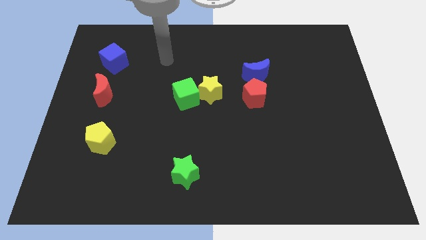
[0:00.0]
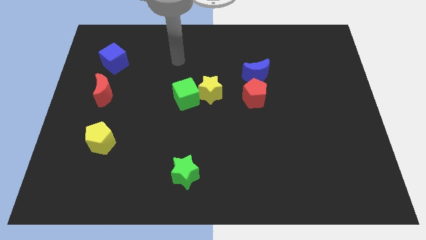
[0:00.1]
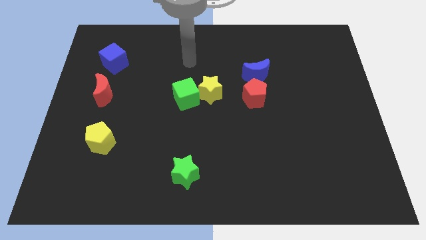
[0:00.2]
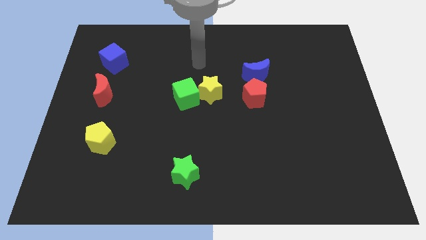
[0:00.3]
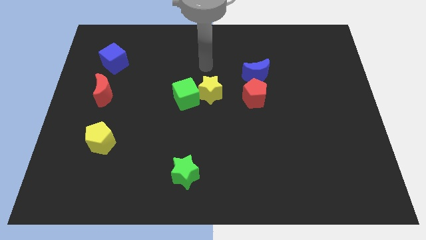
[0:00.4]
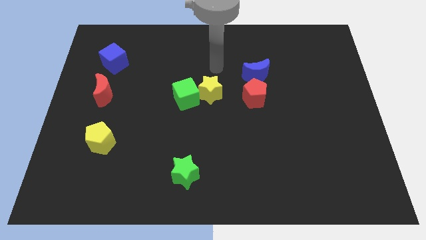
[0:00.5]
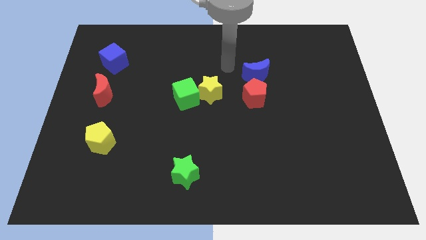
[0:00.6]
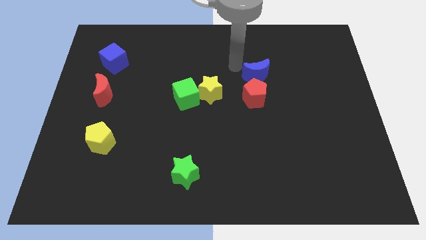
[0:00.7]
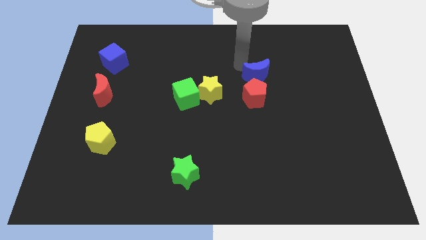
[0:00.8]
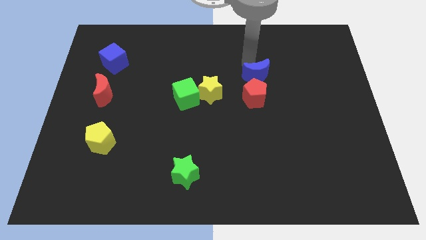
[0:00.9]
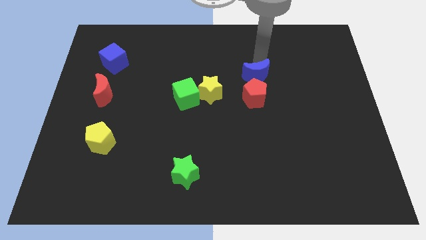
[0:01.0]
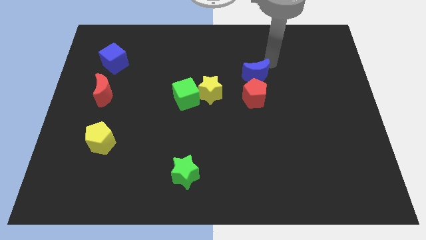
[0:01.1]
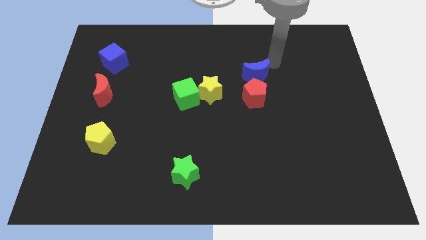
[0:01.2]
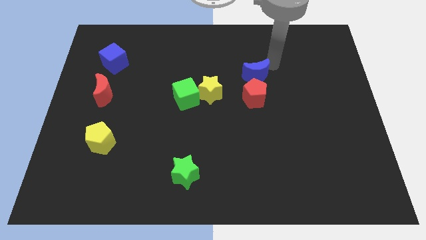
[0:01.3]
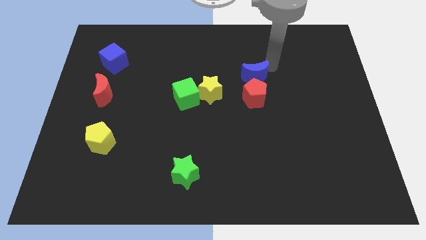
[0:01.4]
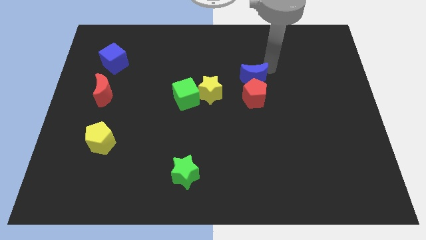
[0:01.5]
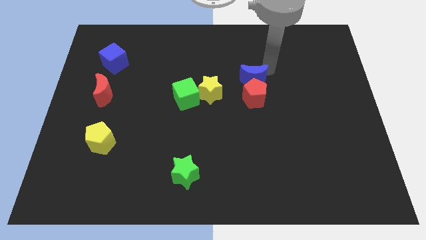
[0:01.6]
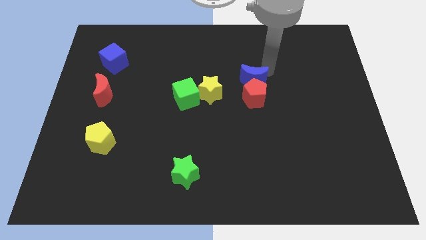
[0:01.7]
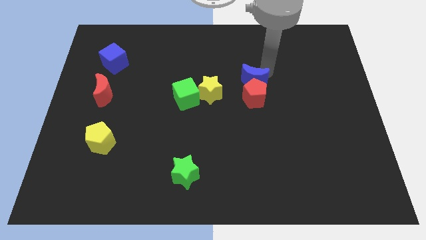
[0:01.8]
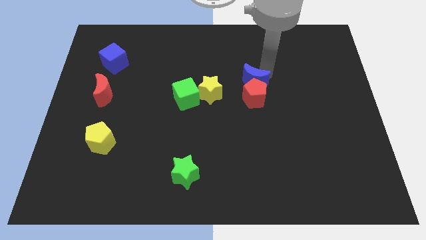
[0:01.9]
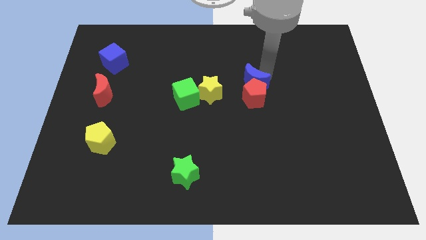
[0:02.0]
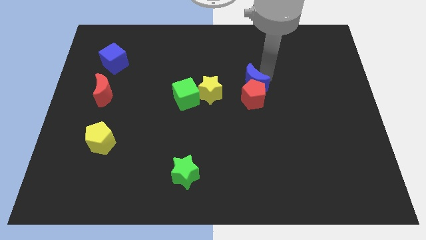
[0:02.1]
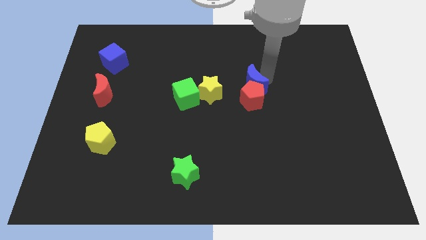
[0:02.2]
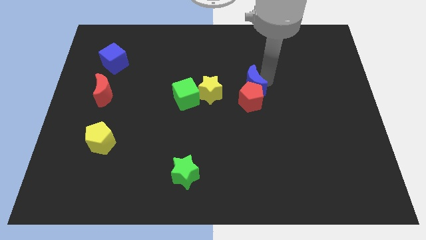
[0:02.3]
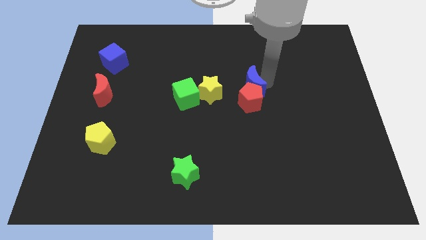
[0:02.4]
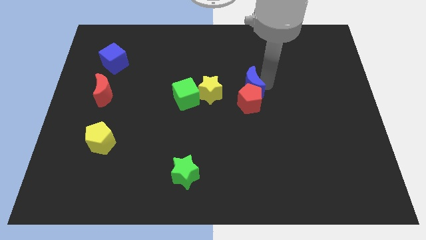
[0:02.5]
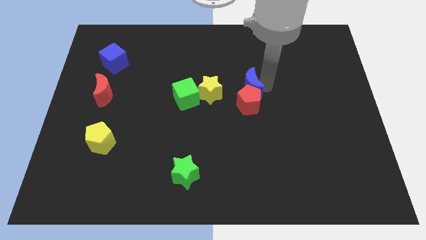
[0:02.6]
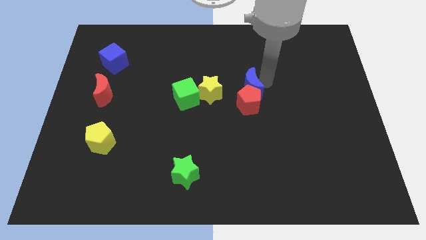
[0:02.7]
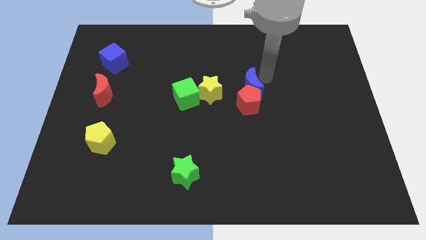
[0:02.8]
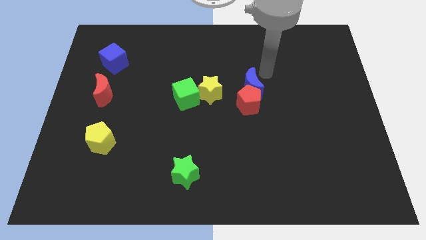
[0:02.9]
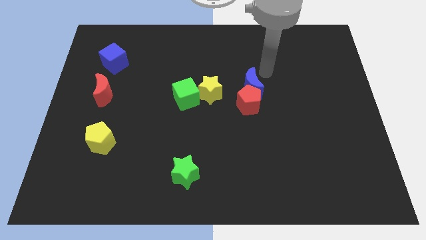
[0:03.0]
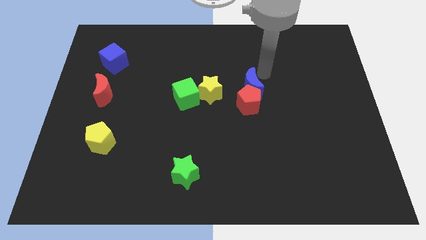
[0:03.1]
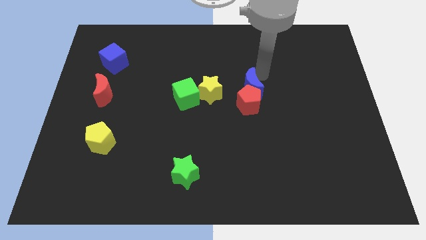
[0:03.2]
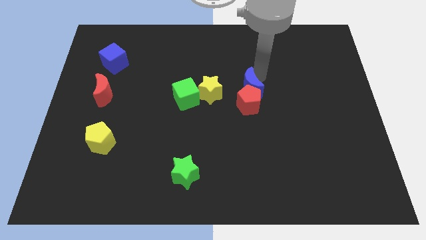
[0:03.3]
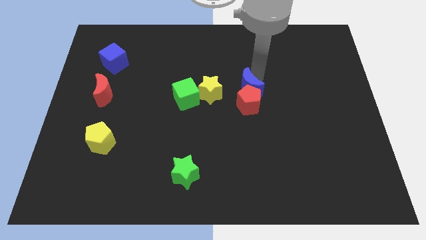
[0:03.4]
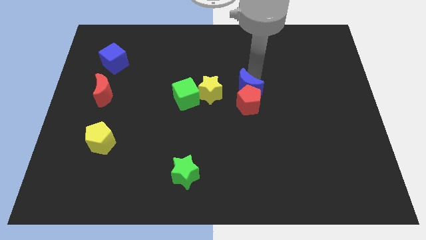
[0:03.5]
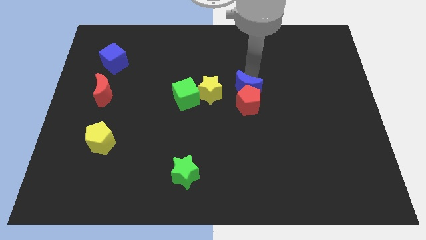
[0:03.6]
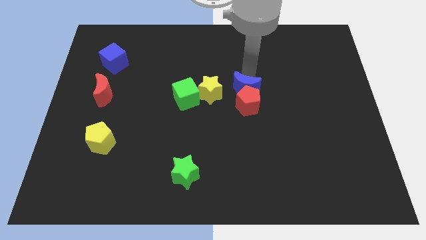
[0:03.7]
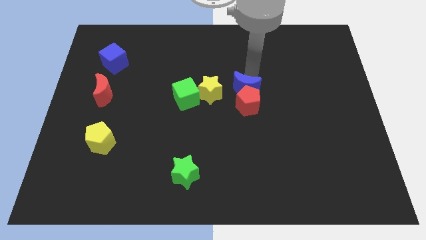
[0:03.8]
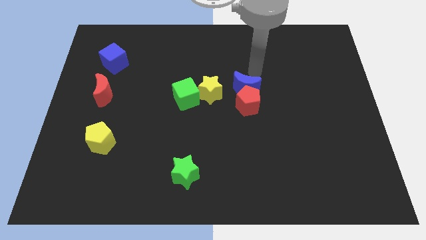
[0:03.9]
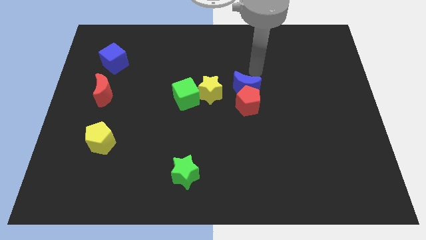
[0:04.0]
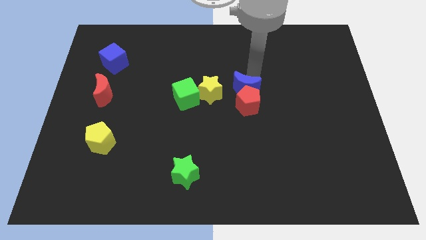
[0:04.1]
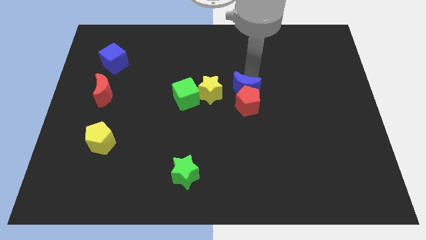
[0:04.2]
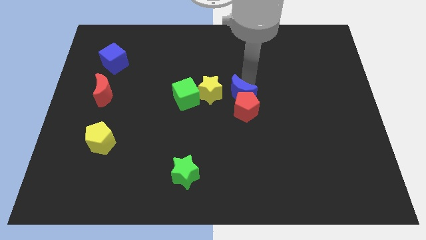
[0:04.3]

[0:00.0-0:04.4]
slightly slide the blue moon down and to the left diagonally

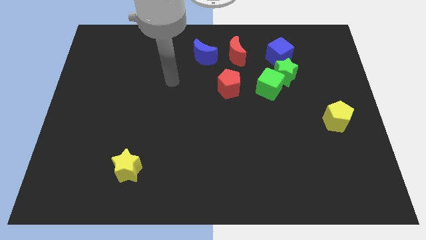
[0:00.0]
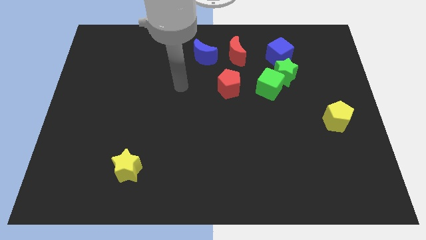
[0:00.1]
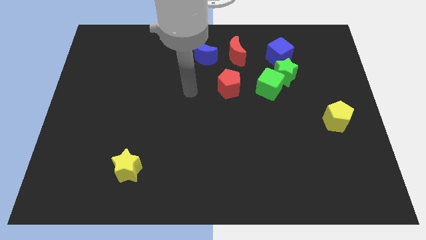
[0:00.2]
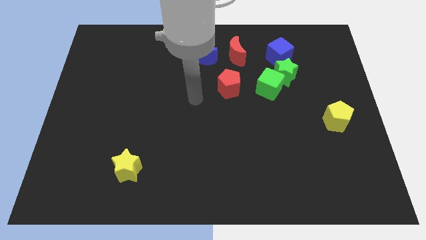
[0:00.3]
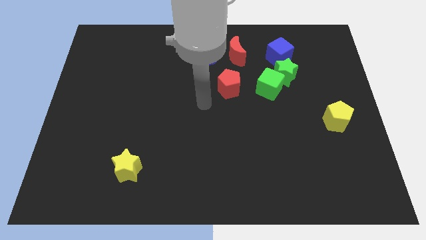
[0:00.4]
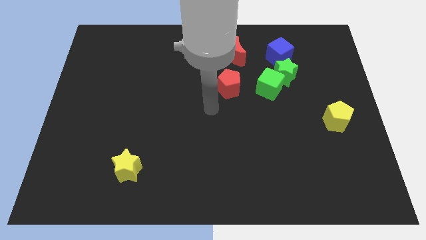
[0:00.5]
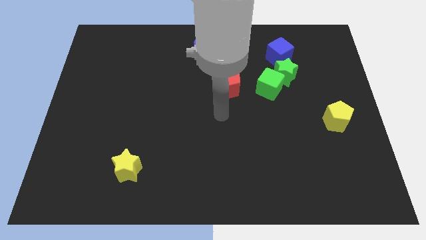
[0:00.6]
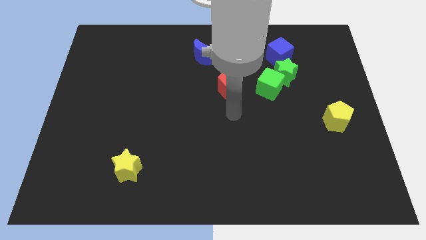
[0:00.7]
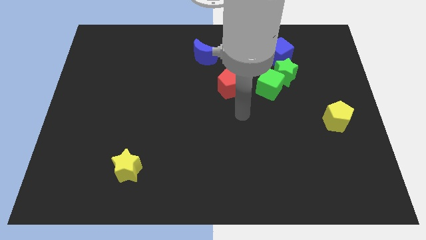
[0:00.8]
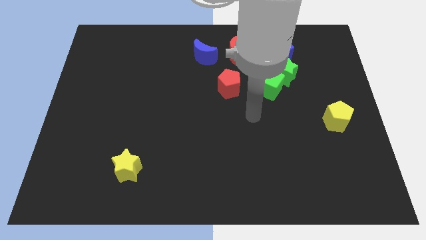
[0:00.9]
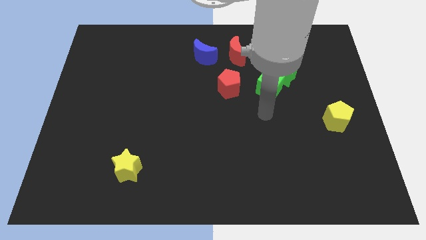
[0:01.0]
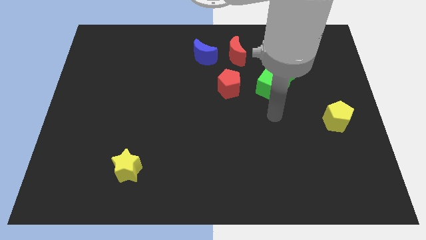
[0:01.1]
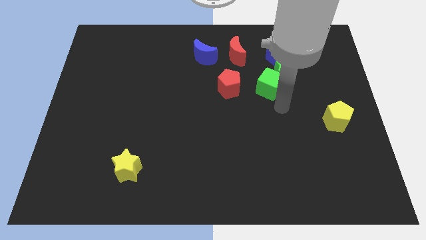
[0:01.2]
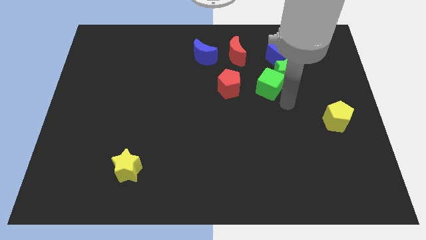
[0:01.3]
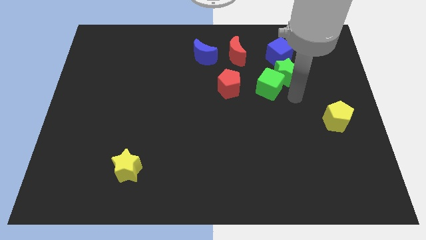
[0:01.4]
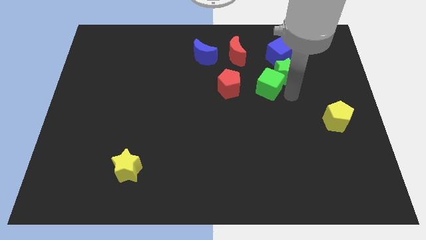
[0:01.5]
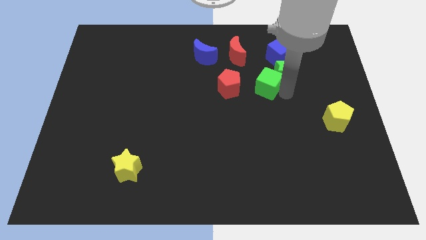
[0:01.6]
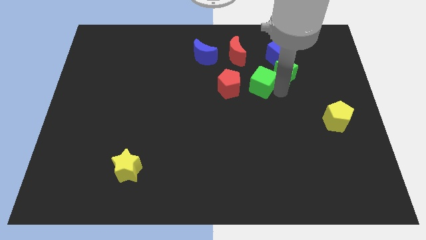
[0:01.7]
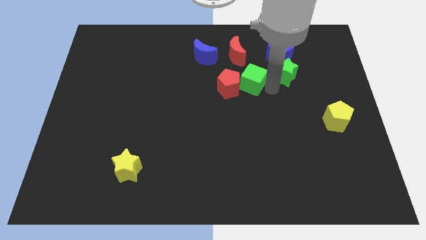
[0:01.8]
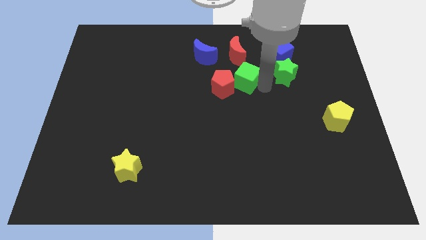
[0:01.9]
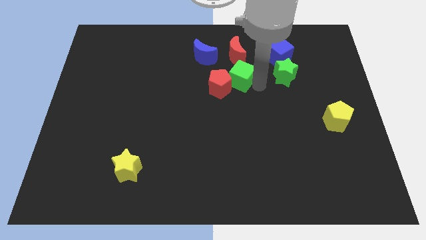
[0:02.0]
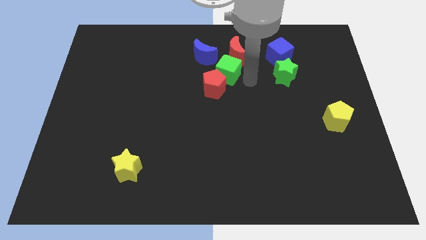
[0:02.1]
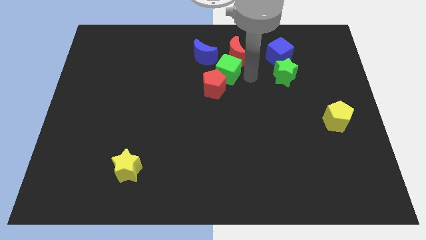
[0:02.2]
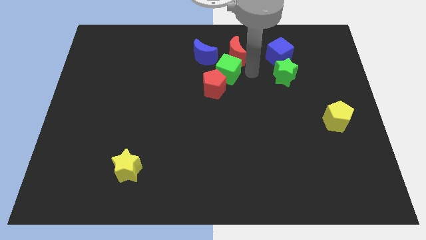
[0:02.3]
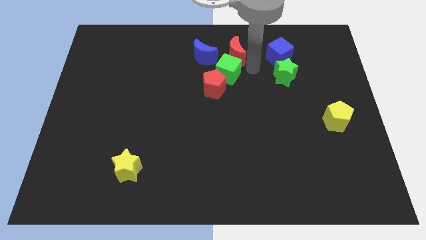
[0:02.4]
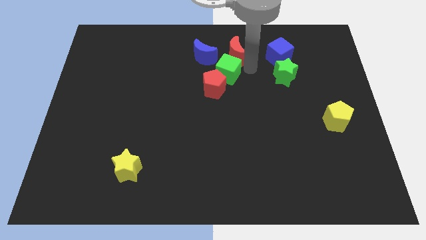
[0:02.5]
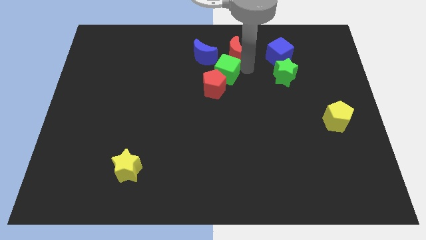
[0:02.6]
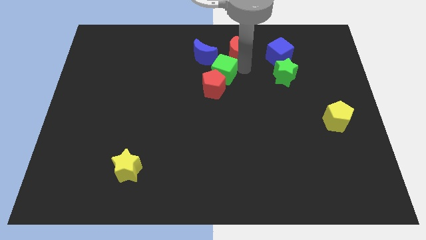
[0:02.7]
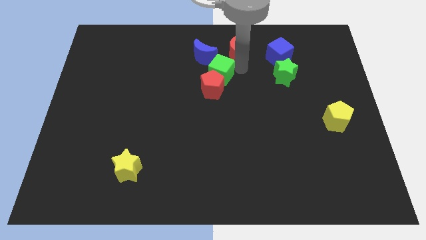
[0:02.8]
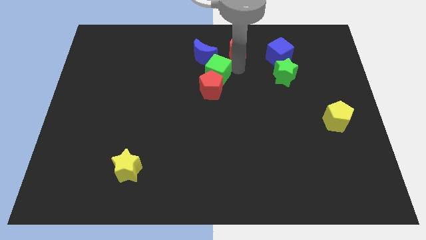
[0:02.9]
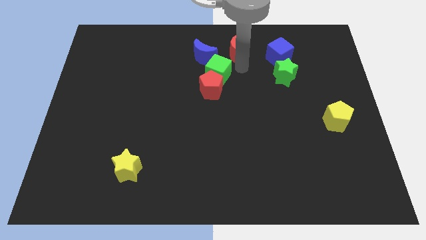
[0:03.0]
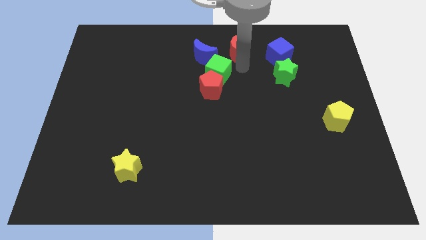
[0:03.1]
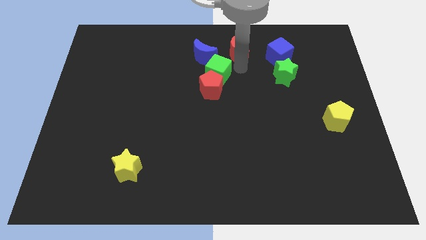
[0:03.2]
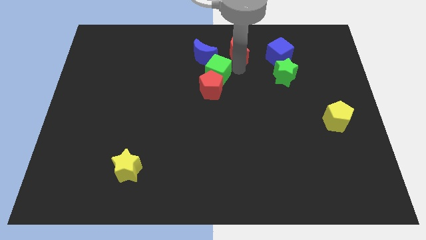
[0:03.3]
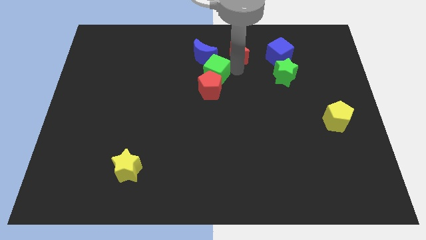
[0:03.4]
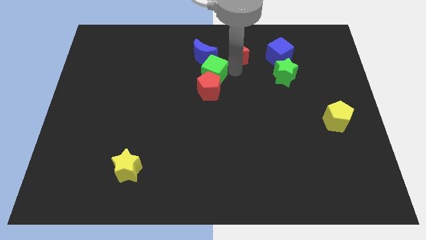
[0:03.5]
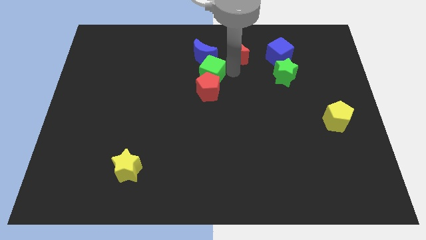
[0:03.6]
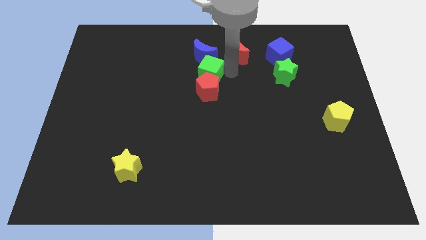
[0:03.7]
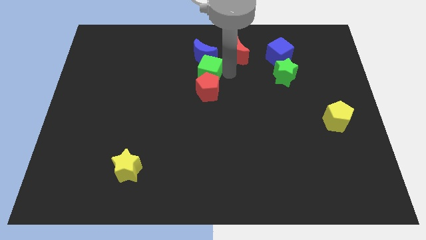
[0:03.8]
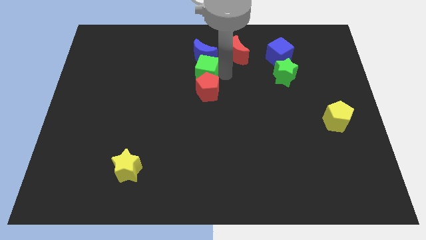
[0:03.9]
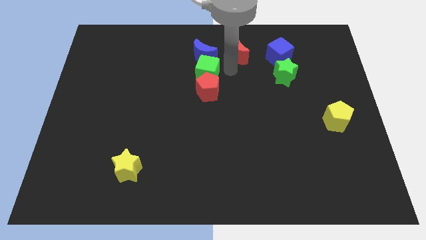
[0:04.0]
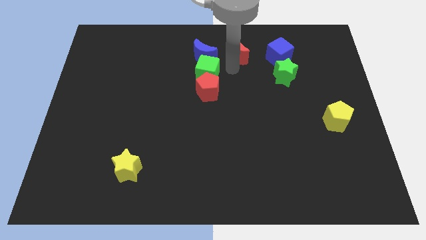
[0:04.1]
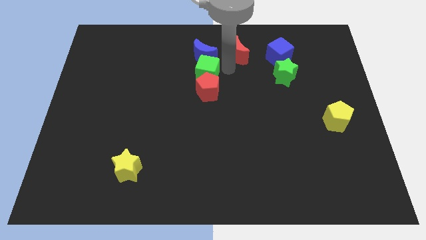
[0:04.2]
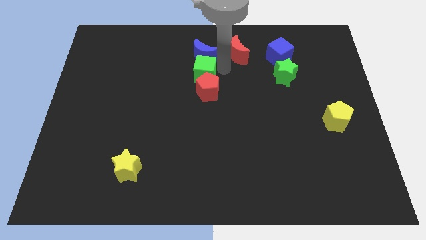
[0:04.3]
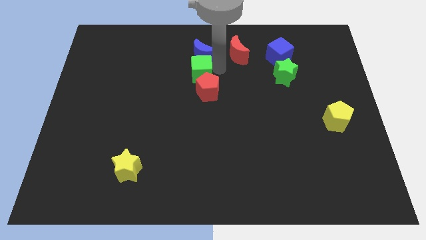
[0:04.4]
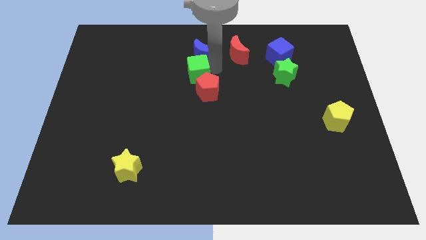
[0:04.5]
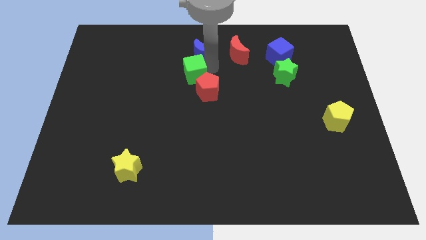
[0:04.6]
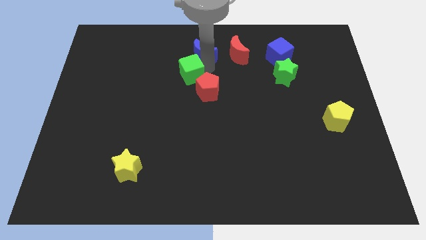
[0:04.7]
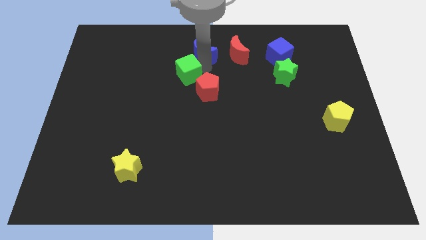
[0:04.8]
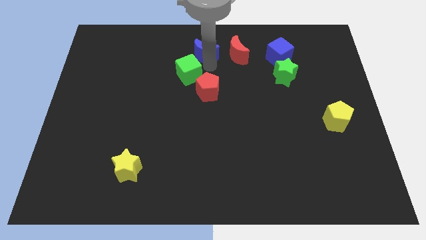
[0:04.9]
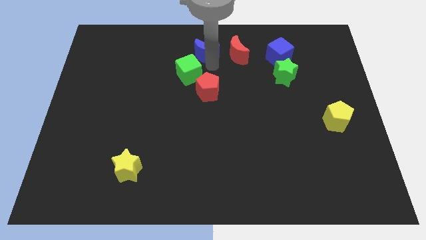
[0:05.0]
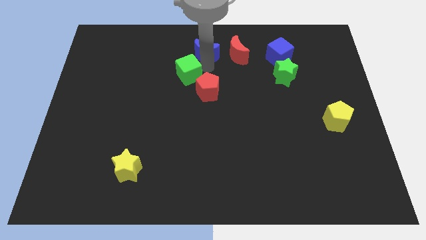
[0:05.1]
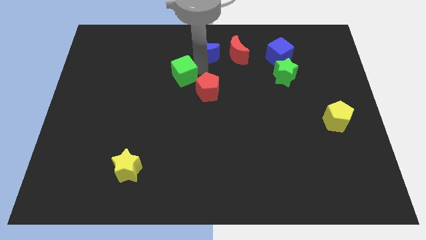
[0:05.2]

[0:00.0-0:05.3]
push the green cube left
